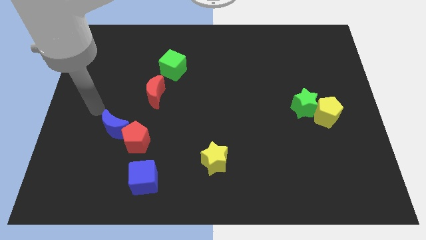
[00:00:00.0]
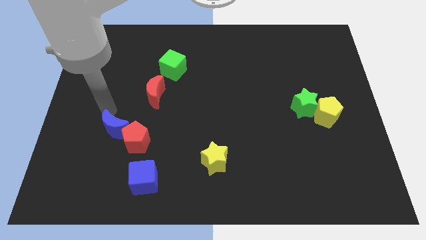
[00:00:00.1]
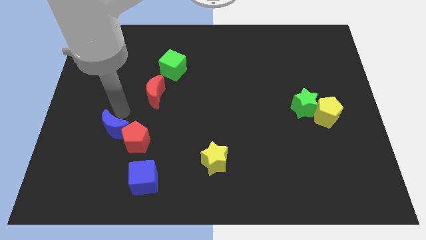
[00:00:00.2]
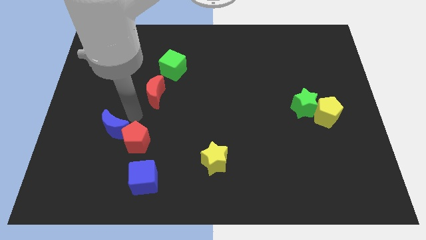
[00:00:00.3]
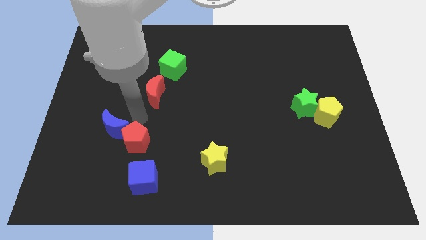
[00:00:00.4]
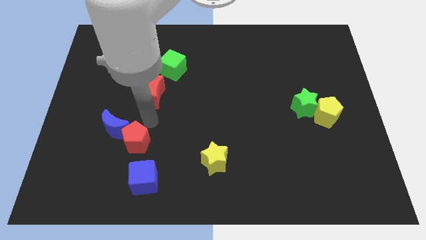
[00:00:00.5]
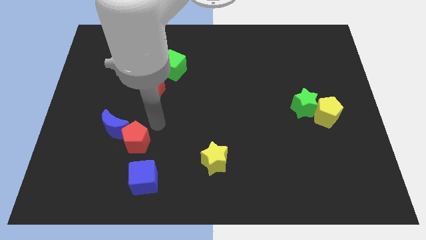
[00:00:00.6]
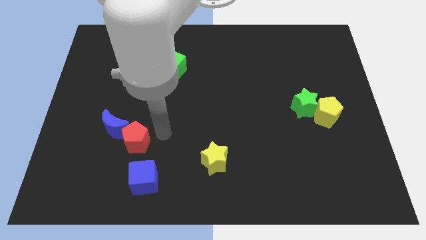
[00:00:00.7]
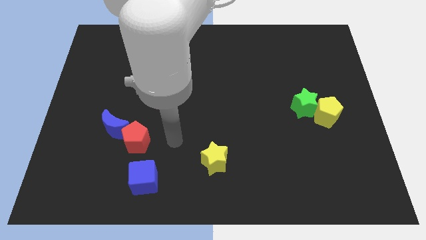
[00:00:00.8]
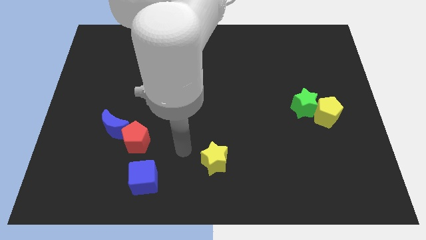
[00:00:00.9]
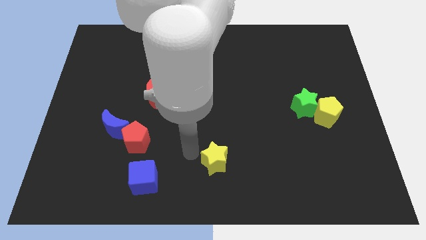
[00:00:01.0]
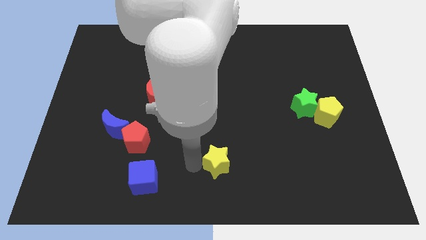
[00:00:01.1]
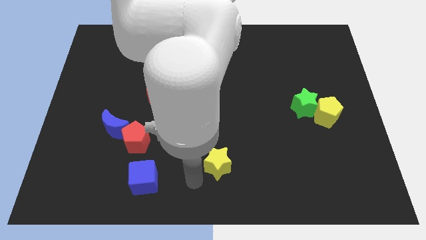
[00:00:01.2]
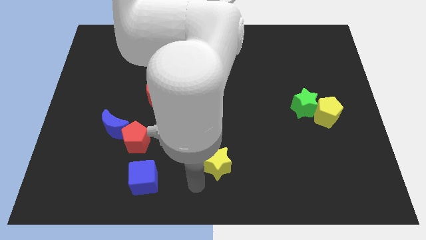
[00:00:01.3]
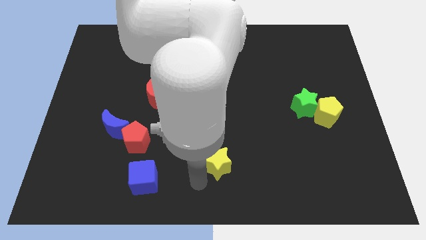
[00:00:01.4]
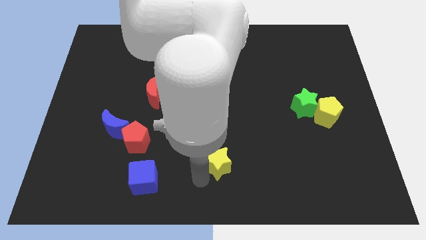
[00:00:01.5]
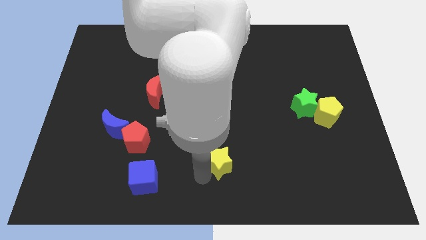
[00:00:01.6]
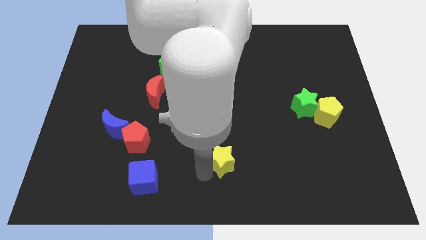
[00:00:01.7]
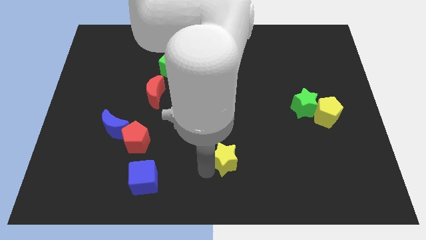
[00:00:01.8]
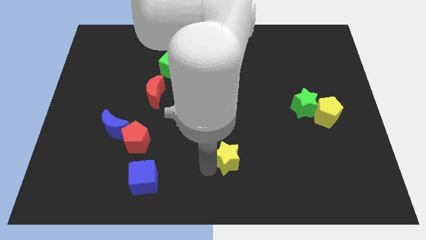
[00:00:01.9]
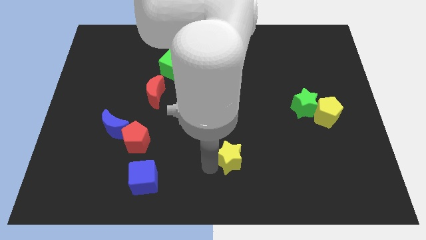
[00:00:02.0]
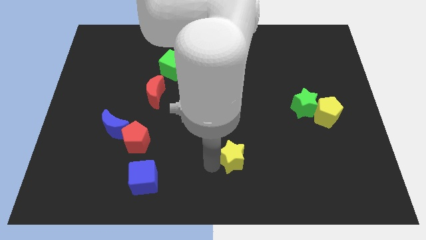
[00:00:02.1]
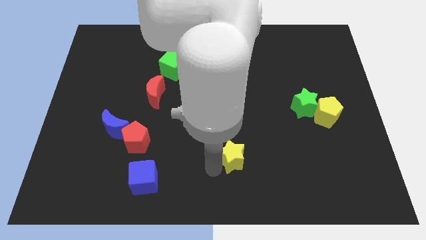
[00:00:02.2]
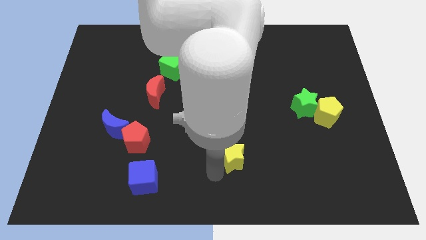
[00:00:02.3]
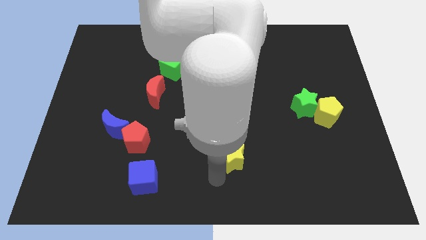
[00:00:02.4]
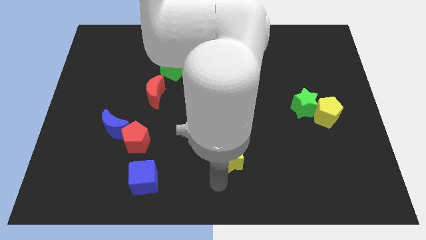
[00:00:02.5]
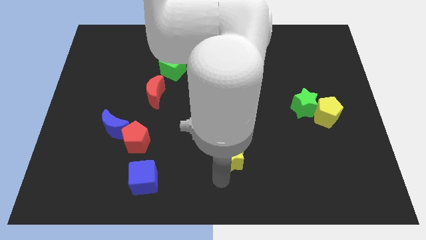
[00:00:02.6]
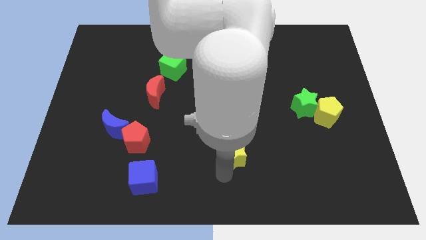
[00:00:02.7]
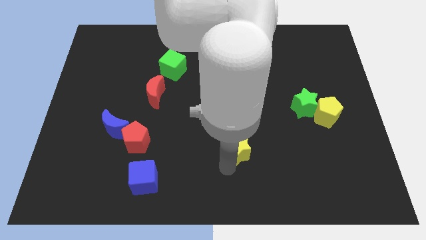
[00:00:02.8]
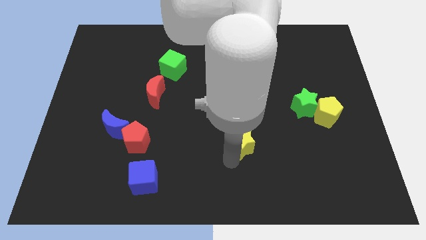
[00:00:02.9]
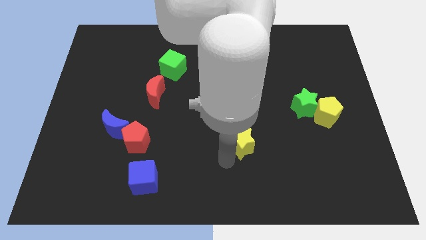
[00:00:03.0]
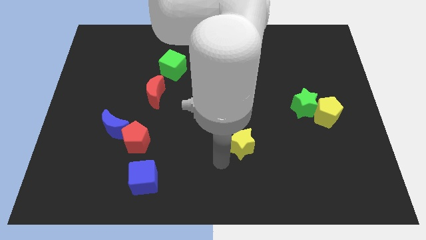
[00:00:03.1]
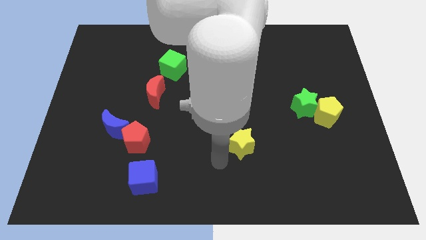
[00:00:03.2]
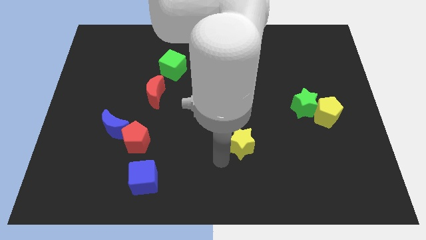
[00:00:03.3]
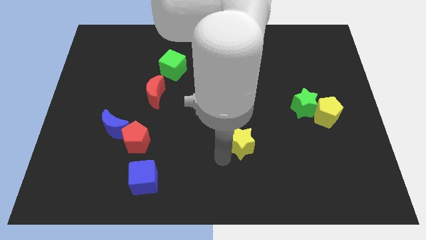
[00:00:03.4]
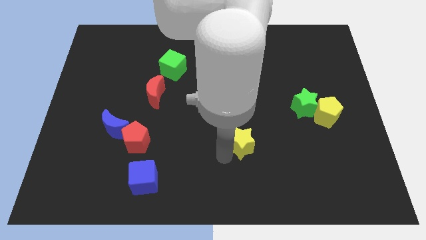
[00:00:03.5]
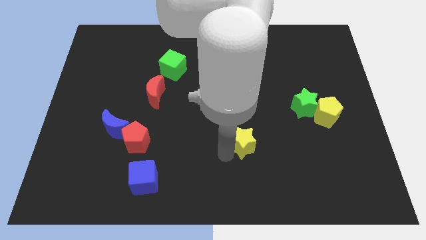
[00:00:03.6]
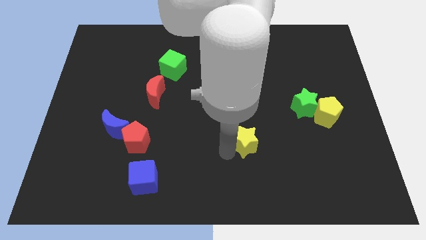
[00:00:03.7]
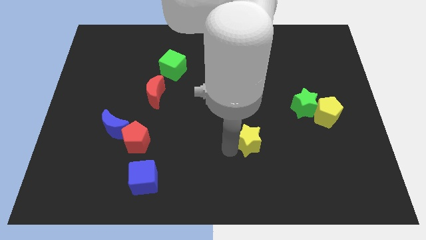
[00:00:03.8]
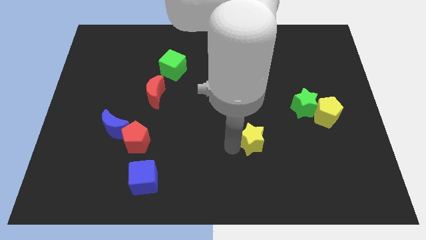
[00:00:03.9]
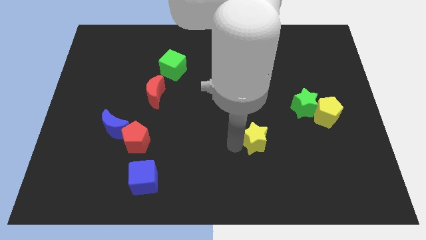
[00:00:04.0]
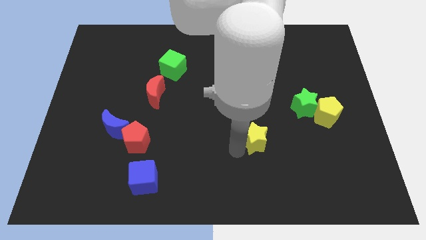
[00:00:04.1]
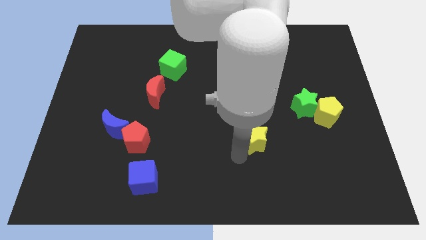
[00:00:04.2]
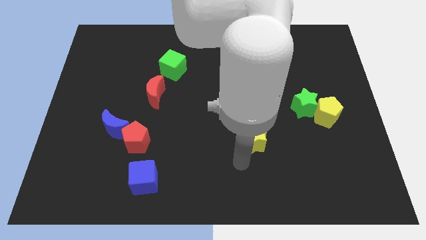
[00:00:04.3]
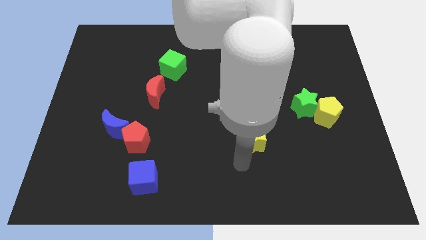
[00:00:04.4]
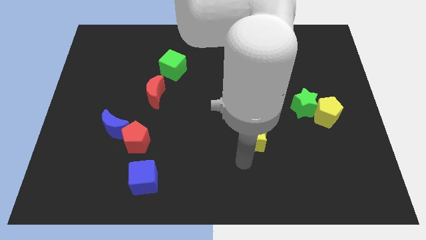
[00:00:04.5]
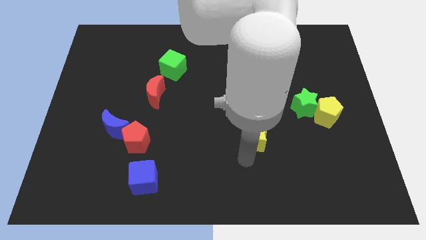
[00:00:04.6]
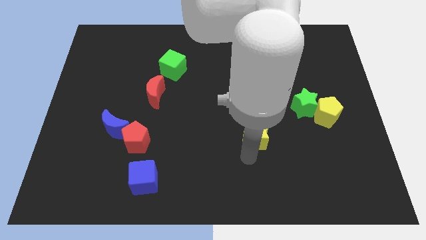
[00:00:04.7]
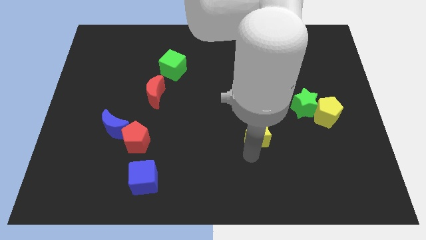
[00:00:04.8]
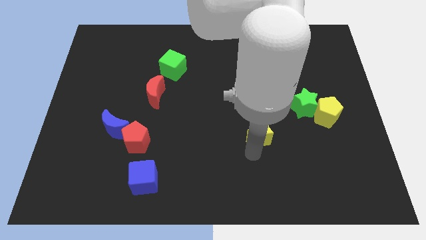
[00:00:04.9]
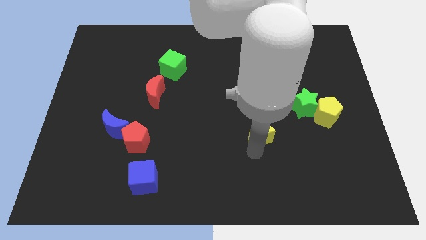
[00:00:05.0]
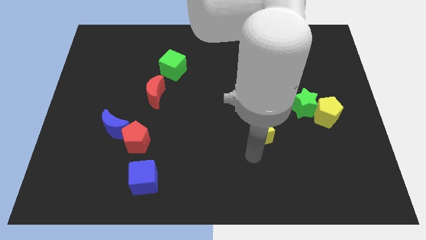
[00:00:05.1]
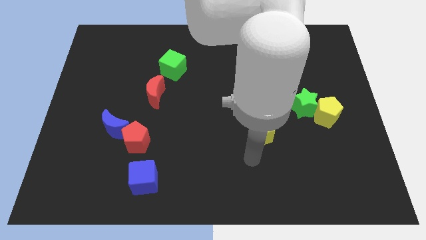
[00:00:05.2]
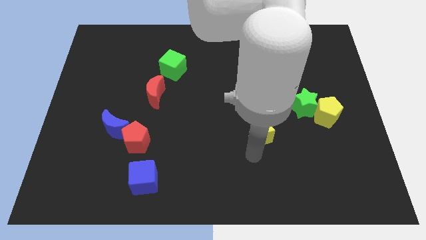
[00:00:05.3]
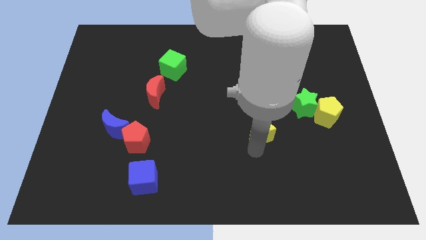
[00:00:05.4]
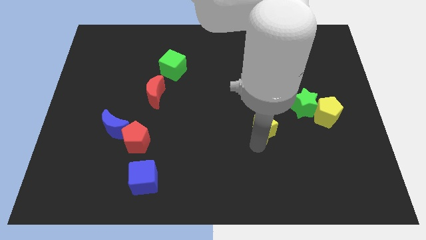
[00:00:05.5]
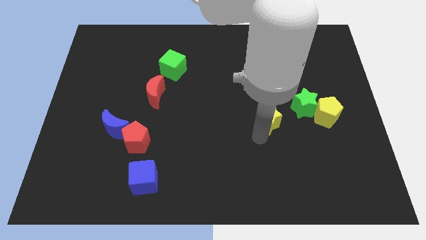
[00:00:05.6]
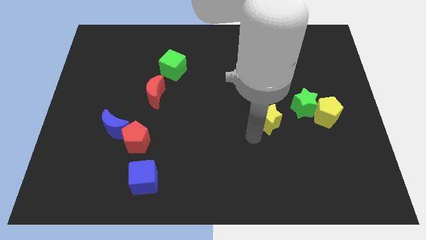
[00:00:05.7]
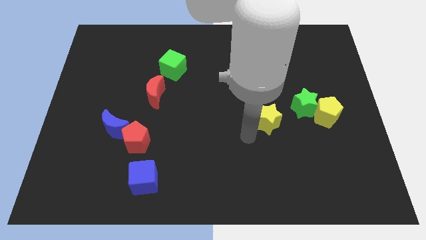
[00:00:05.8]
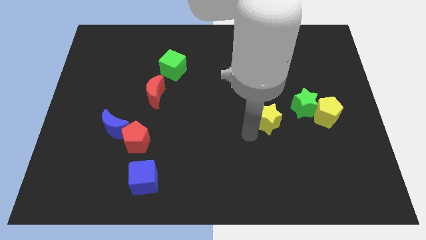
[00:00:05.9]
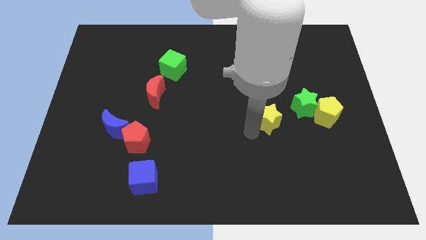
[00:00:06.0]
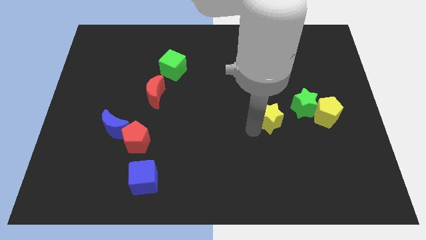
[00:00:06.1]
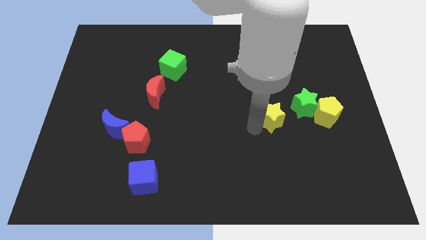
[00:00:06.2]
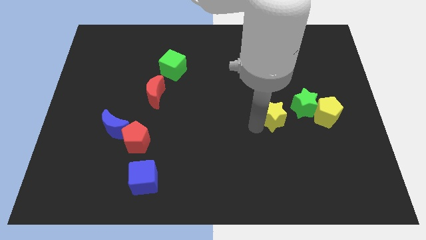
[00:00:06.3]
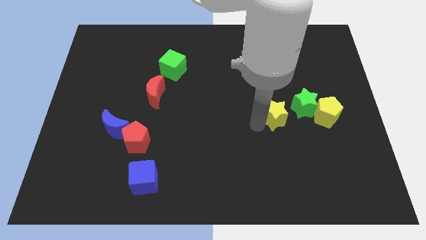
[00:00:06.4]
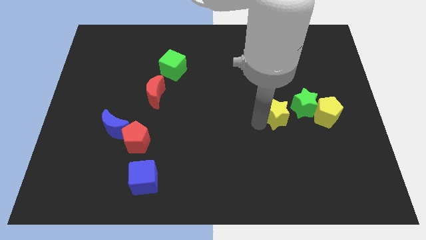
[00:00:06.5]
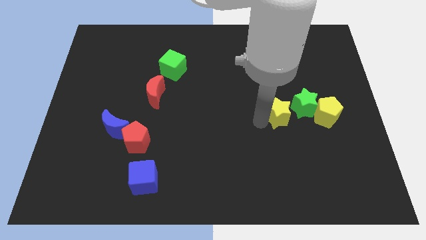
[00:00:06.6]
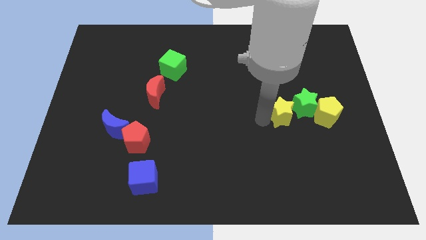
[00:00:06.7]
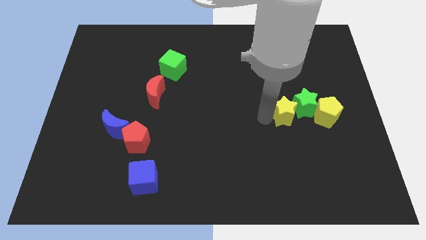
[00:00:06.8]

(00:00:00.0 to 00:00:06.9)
slide the yellow star next to the green star

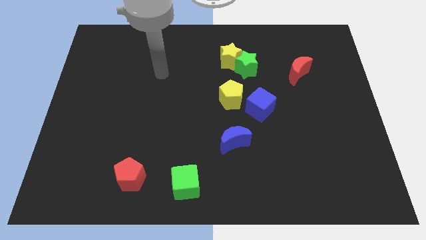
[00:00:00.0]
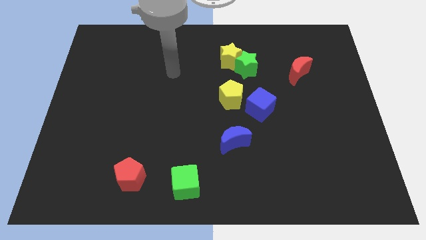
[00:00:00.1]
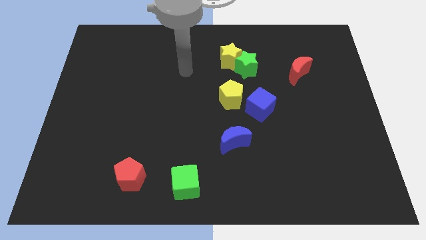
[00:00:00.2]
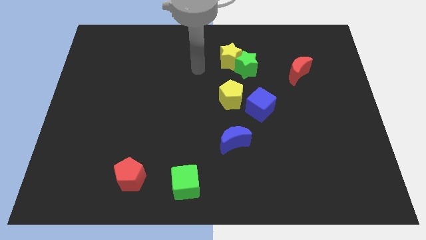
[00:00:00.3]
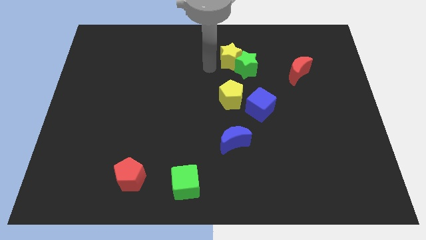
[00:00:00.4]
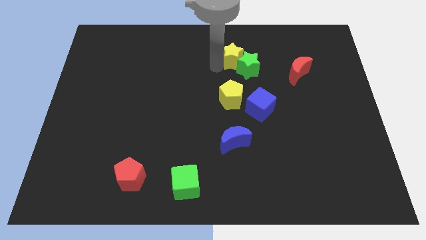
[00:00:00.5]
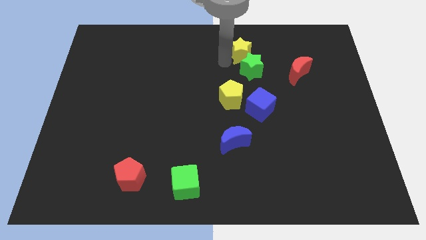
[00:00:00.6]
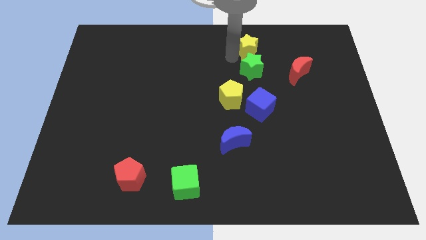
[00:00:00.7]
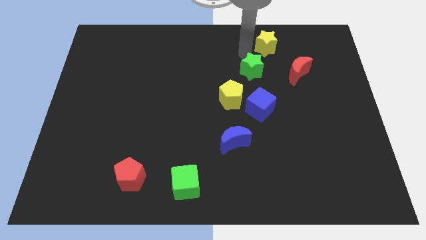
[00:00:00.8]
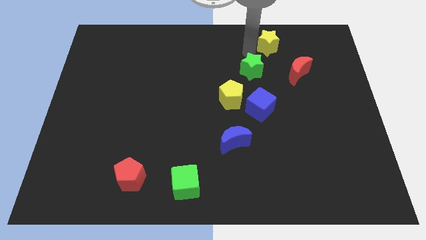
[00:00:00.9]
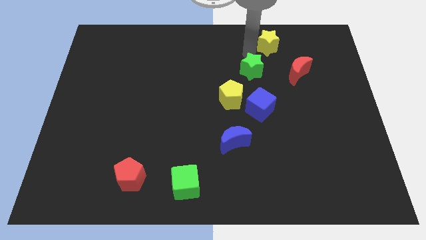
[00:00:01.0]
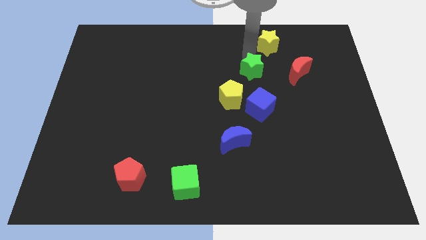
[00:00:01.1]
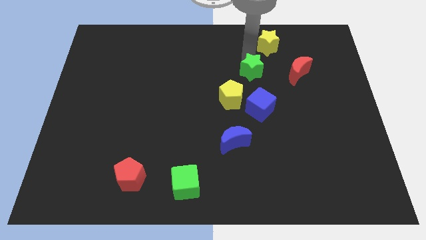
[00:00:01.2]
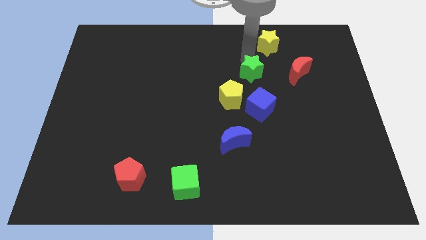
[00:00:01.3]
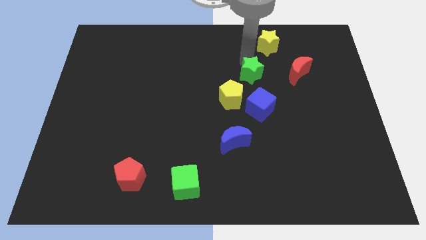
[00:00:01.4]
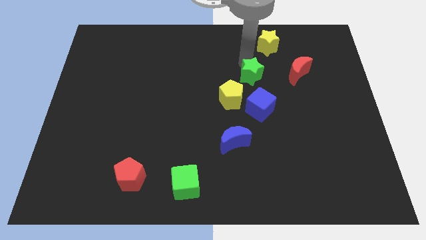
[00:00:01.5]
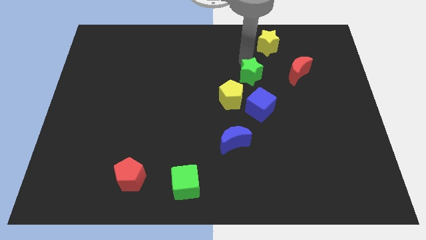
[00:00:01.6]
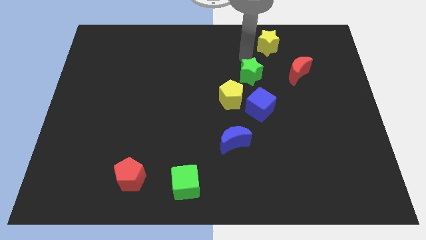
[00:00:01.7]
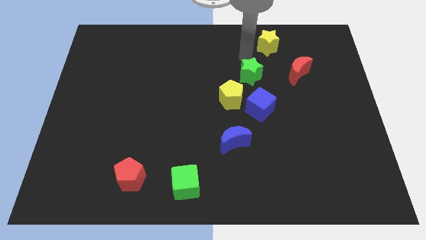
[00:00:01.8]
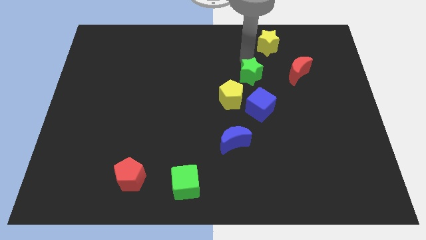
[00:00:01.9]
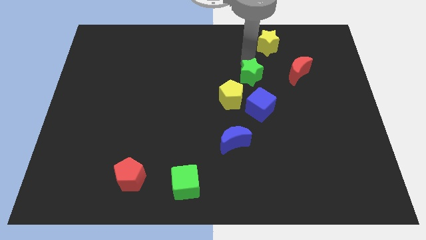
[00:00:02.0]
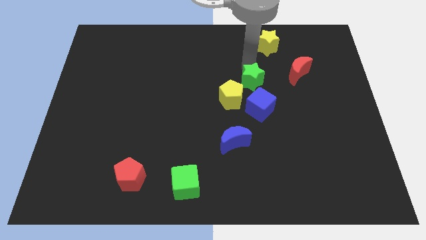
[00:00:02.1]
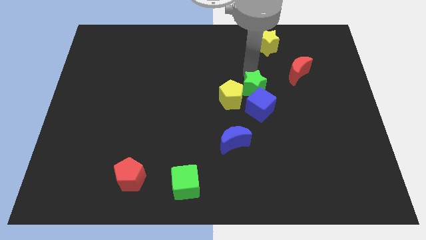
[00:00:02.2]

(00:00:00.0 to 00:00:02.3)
push the green star next to the blue cube
